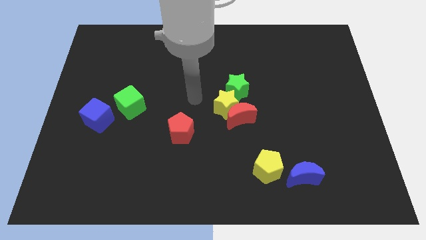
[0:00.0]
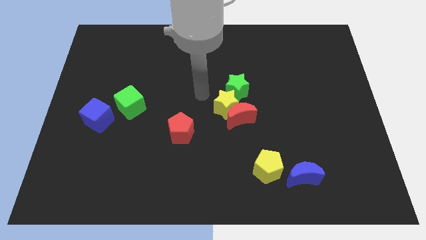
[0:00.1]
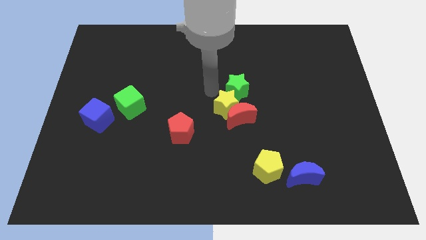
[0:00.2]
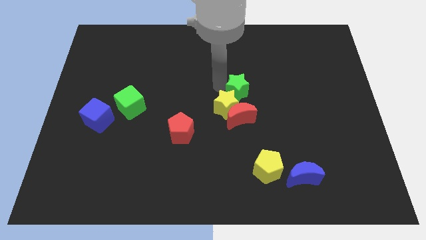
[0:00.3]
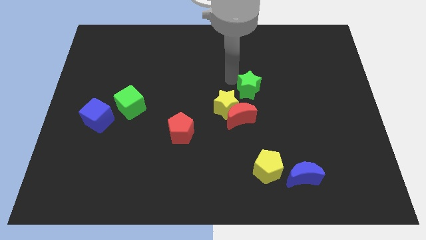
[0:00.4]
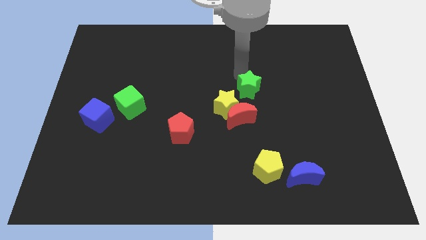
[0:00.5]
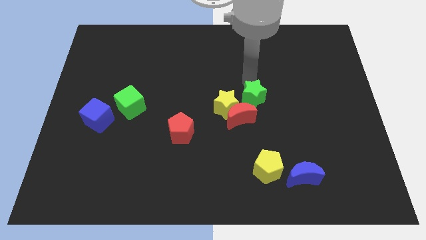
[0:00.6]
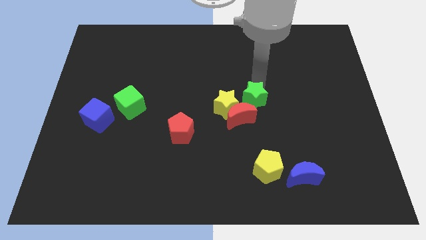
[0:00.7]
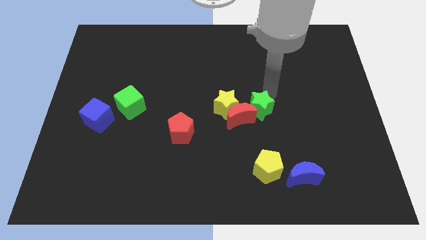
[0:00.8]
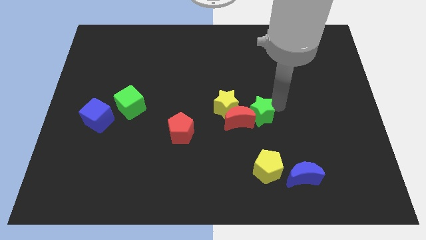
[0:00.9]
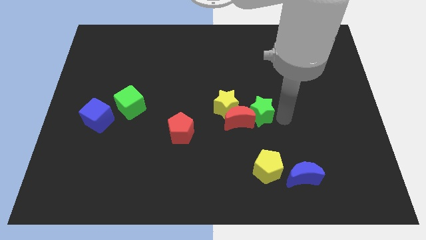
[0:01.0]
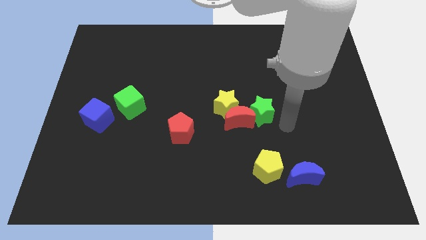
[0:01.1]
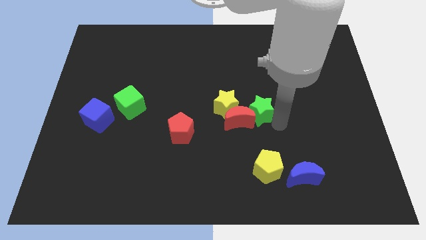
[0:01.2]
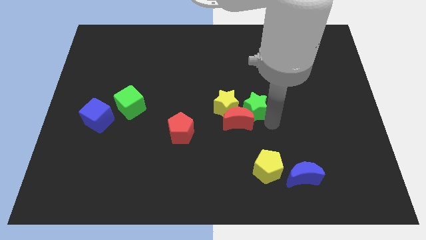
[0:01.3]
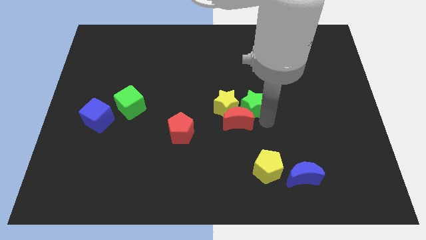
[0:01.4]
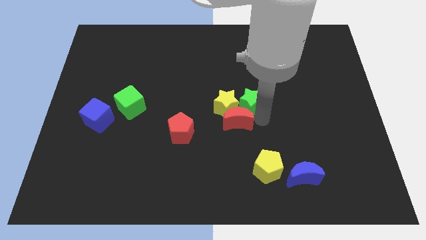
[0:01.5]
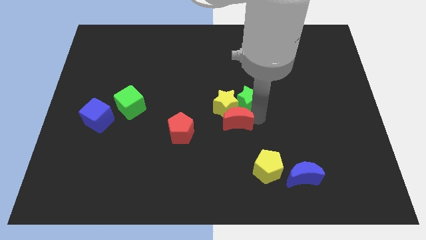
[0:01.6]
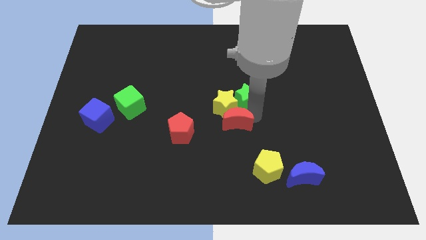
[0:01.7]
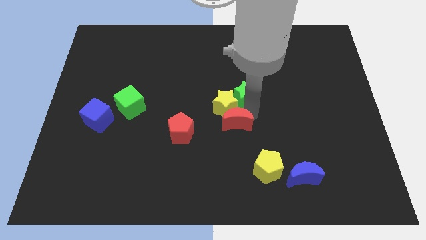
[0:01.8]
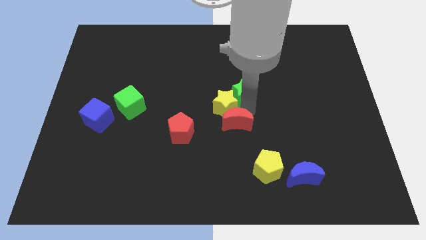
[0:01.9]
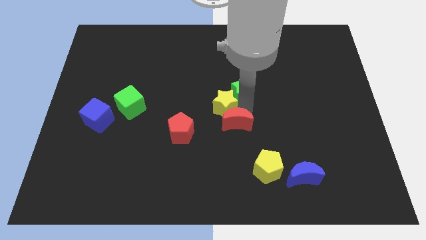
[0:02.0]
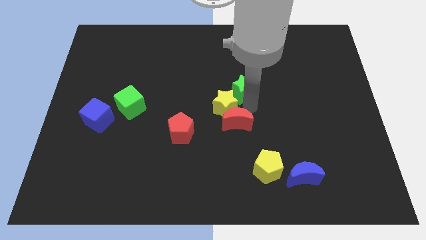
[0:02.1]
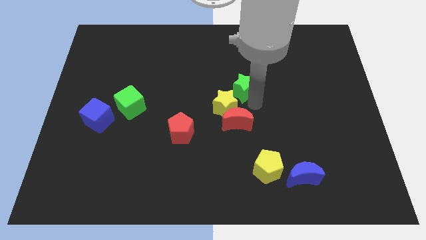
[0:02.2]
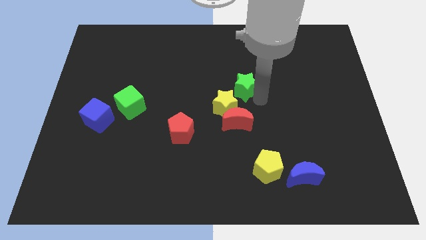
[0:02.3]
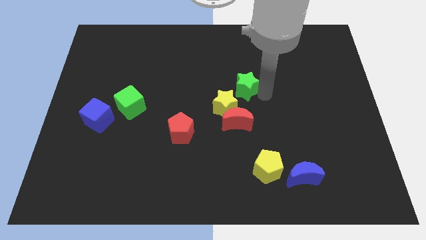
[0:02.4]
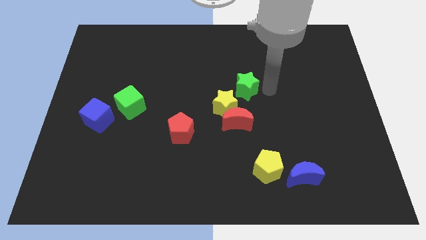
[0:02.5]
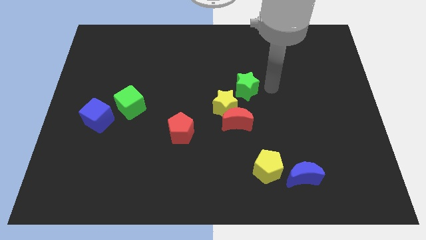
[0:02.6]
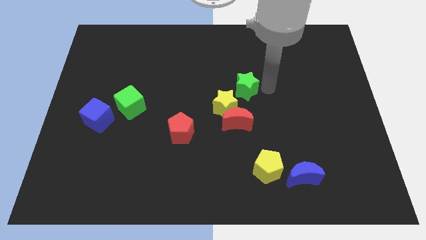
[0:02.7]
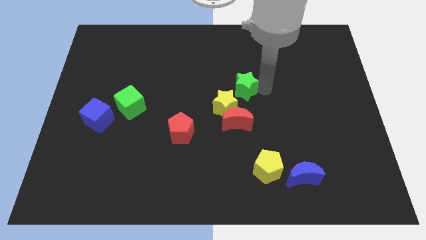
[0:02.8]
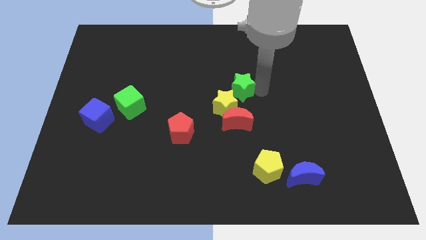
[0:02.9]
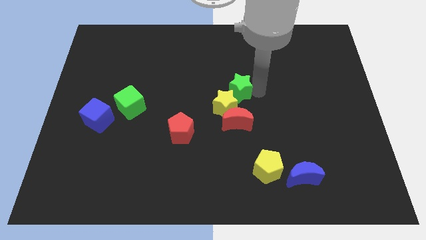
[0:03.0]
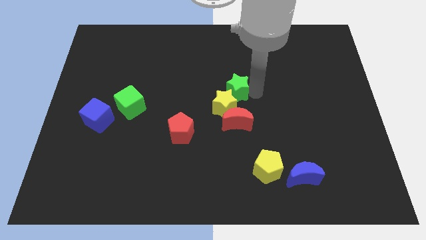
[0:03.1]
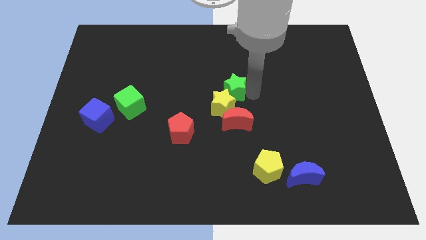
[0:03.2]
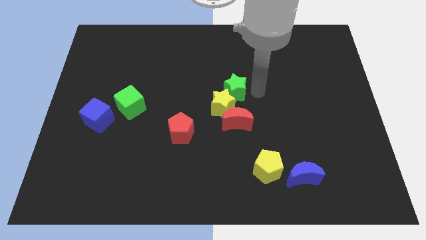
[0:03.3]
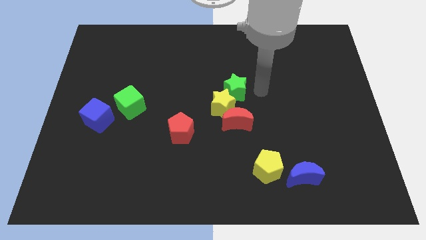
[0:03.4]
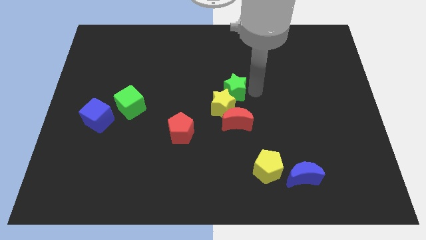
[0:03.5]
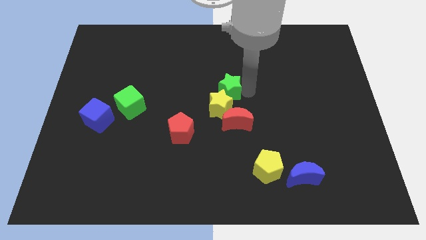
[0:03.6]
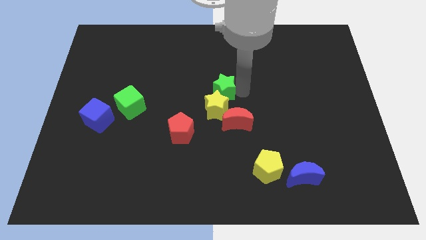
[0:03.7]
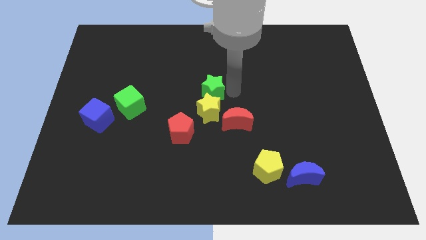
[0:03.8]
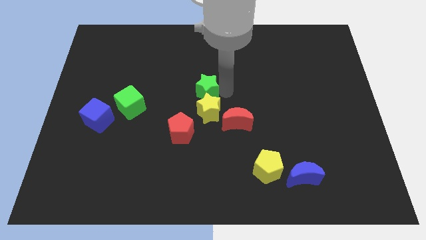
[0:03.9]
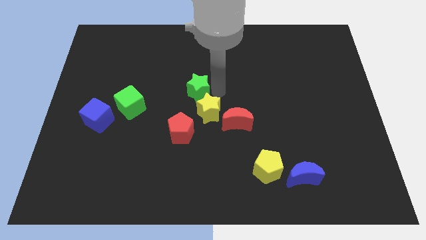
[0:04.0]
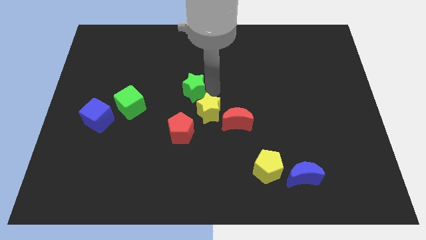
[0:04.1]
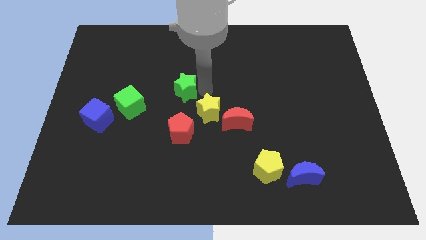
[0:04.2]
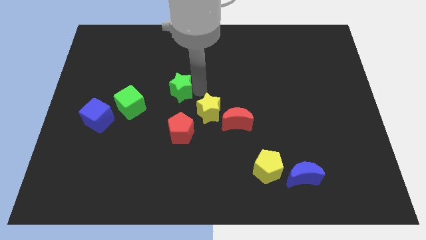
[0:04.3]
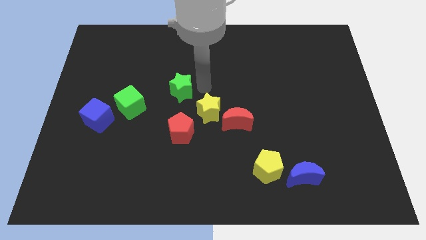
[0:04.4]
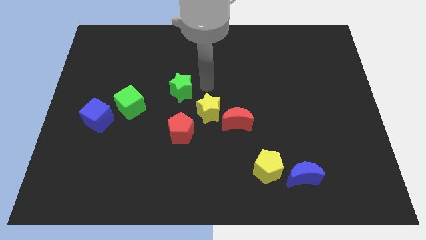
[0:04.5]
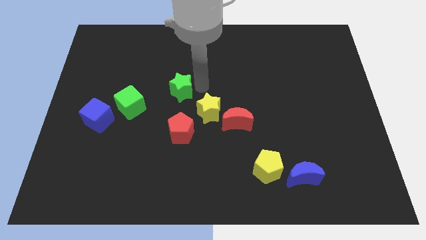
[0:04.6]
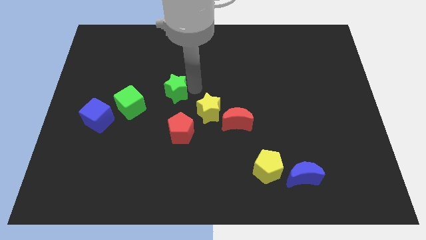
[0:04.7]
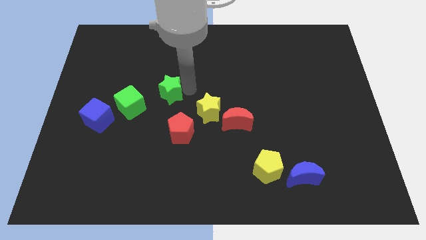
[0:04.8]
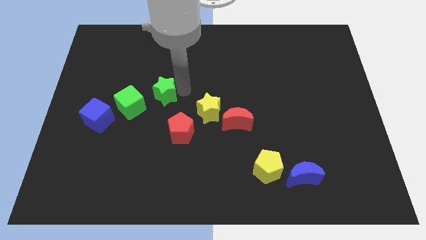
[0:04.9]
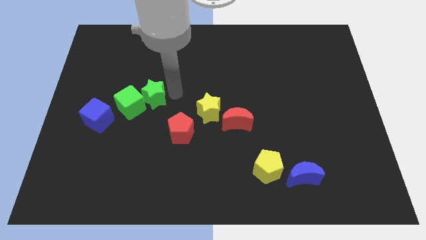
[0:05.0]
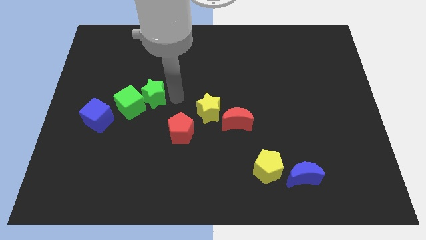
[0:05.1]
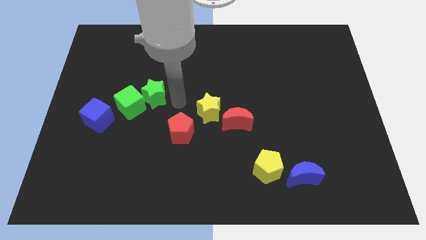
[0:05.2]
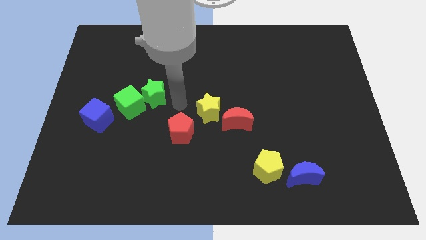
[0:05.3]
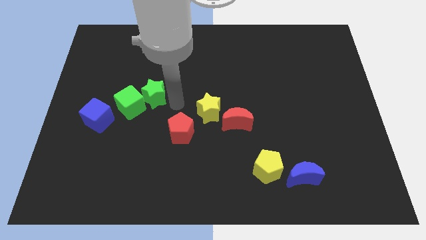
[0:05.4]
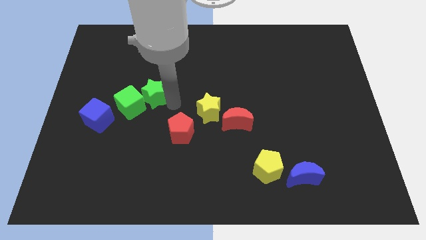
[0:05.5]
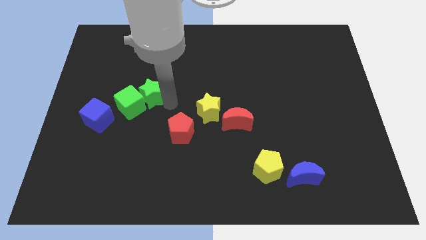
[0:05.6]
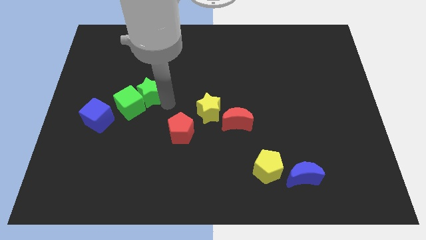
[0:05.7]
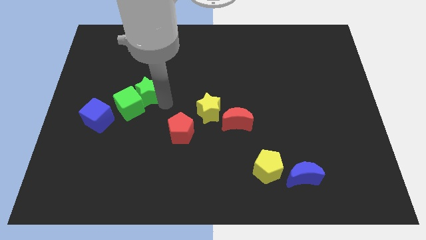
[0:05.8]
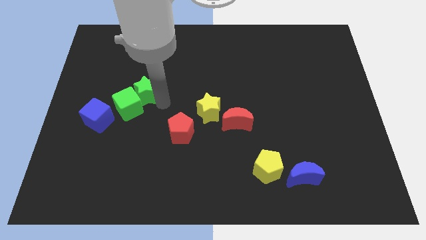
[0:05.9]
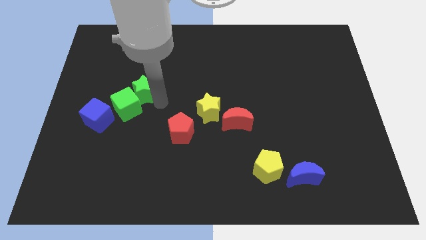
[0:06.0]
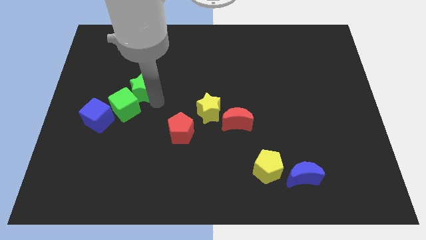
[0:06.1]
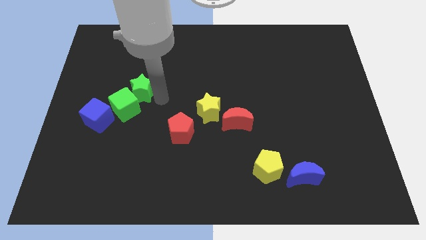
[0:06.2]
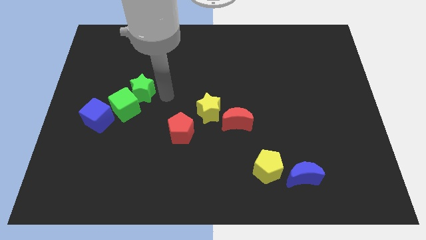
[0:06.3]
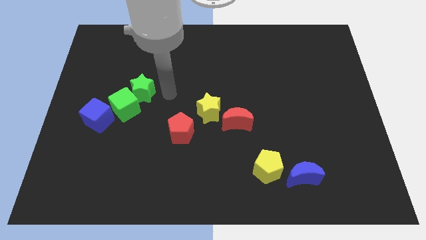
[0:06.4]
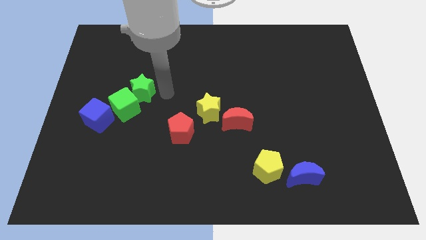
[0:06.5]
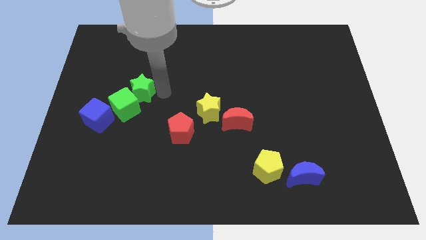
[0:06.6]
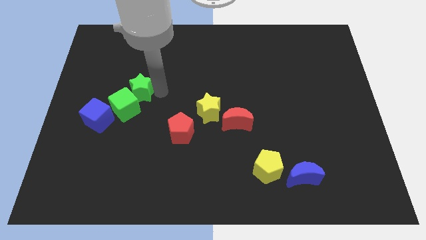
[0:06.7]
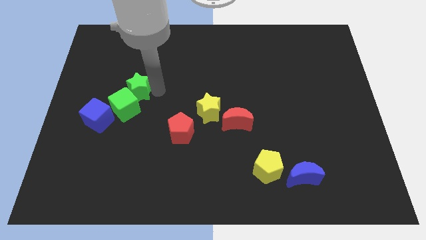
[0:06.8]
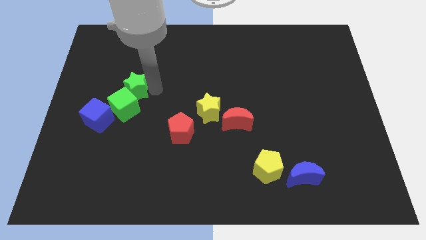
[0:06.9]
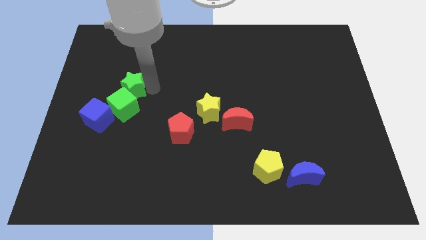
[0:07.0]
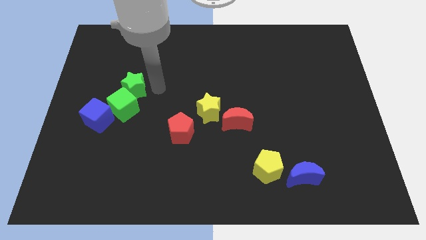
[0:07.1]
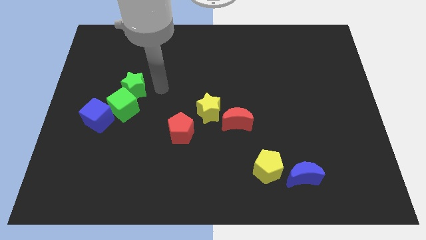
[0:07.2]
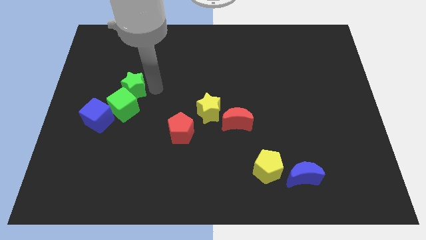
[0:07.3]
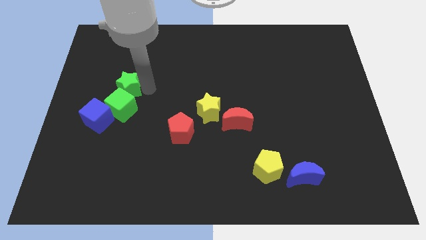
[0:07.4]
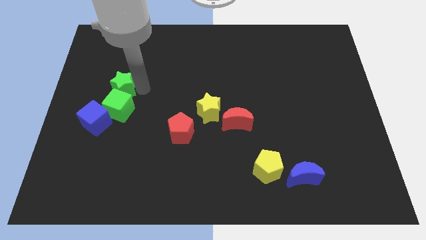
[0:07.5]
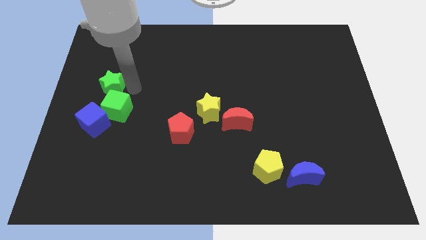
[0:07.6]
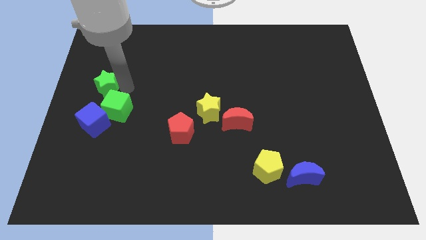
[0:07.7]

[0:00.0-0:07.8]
slide the green star to the left side
